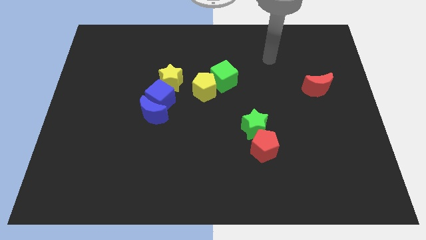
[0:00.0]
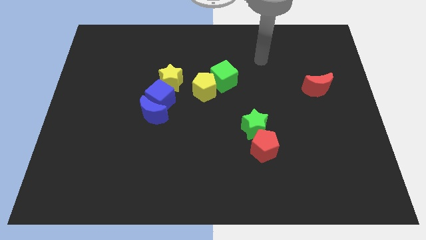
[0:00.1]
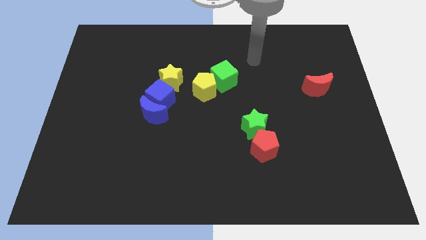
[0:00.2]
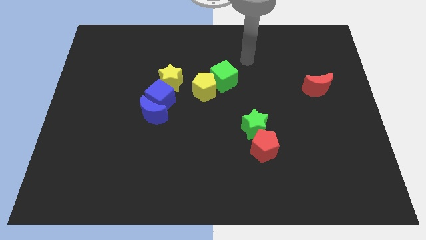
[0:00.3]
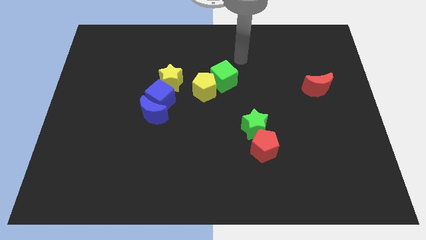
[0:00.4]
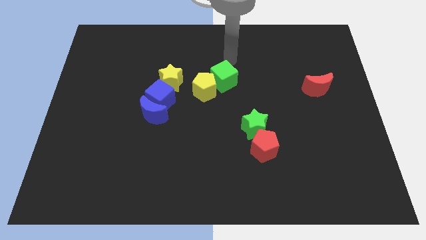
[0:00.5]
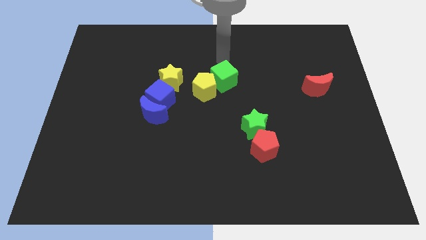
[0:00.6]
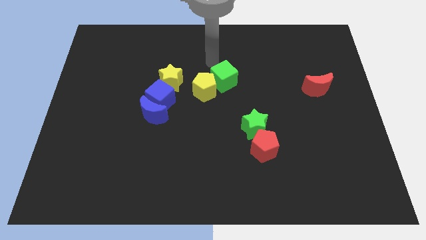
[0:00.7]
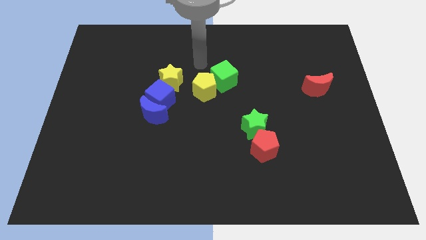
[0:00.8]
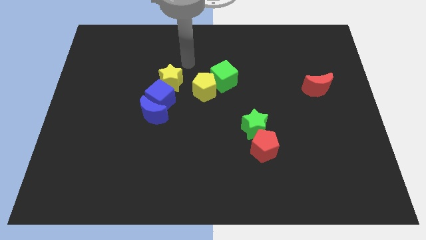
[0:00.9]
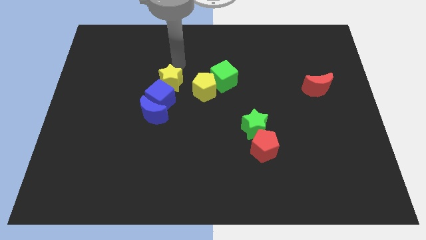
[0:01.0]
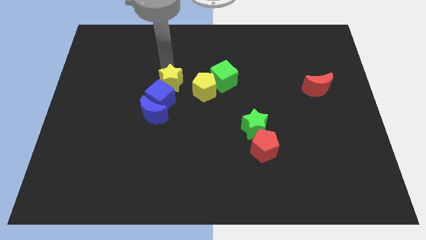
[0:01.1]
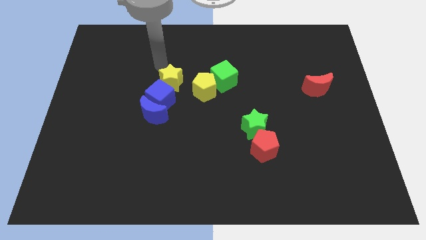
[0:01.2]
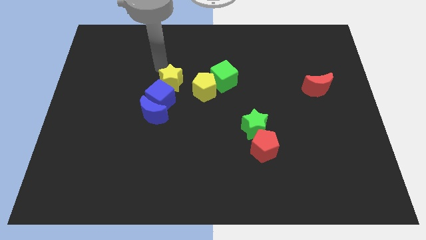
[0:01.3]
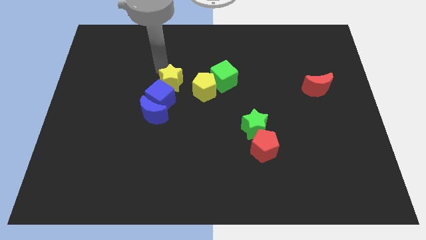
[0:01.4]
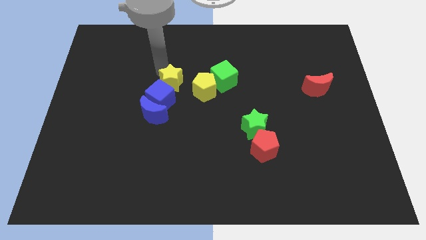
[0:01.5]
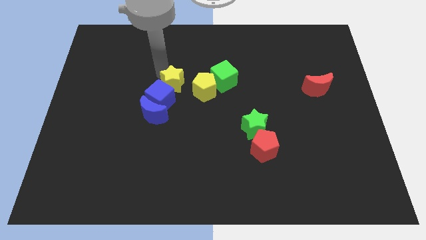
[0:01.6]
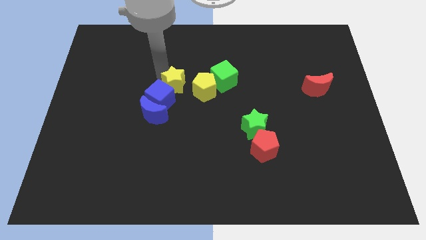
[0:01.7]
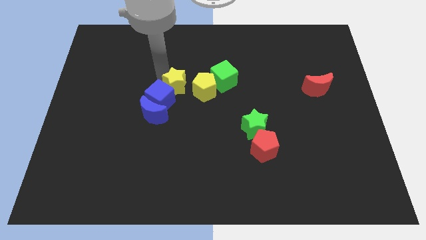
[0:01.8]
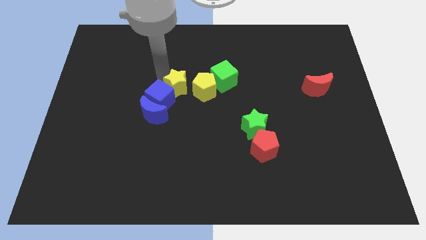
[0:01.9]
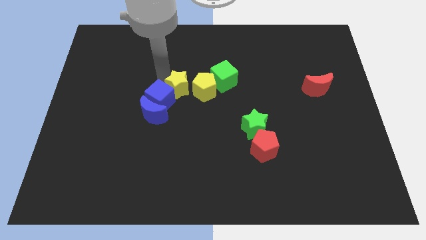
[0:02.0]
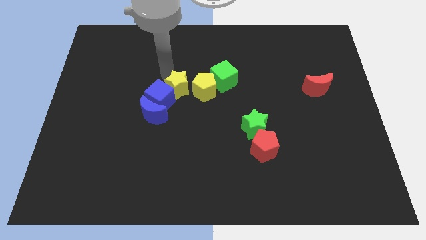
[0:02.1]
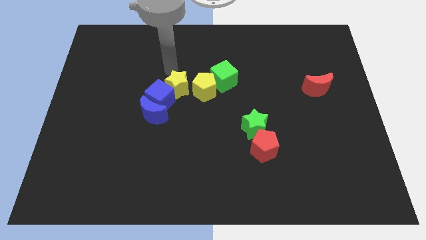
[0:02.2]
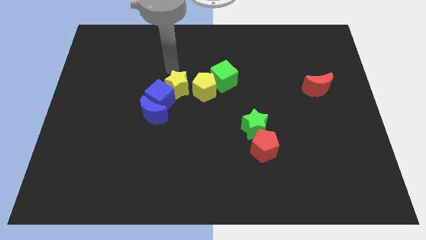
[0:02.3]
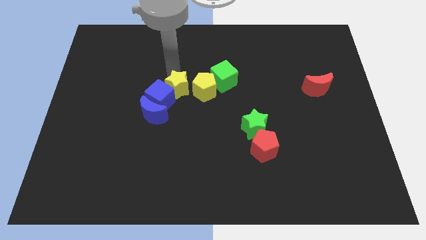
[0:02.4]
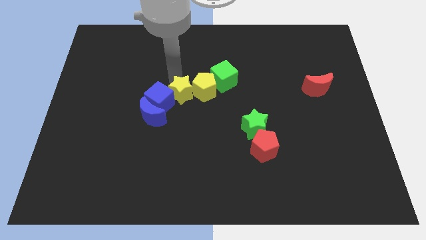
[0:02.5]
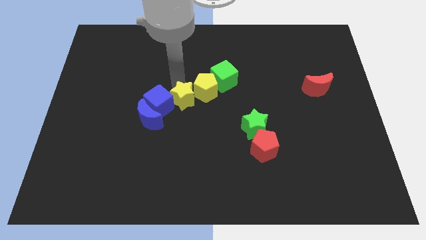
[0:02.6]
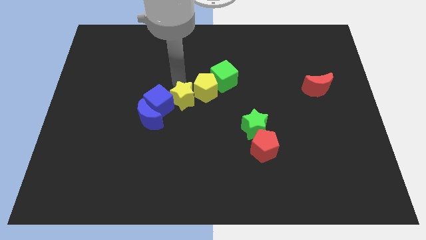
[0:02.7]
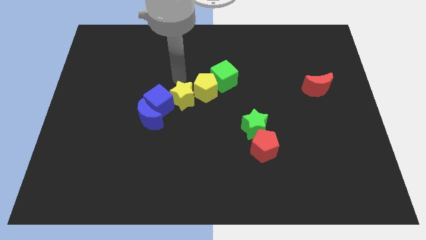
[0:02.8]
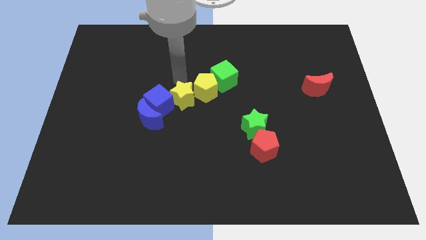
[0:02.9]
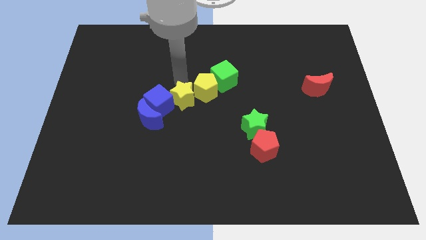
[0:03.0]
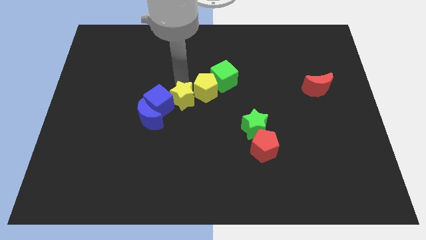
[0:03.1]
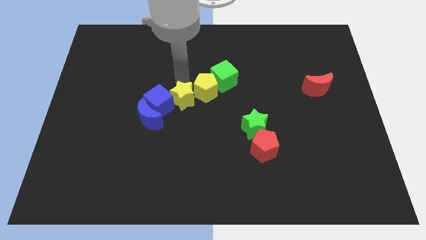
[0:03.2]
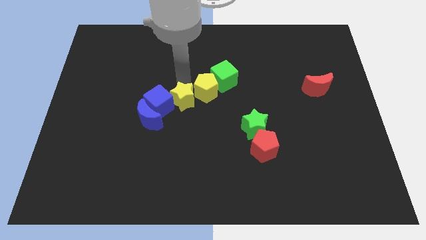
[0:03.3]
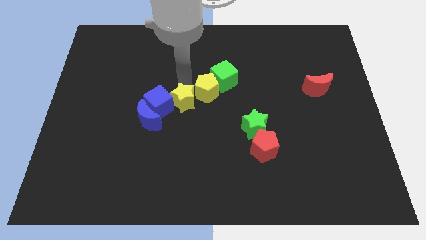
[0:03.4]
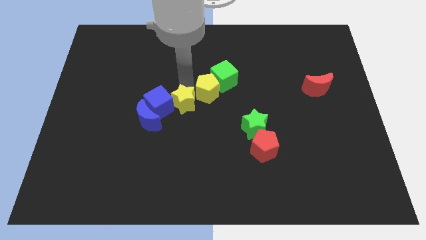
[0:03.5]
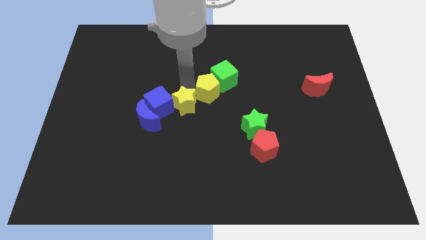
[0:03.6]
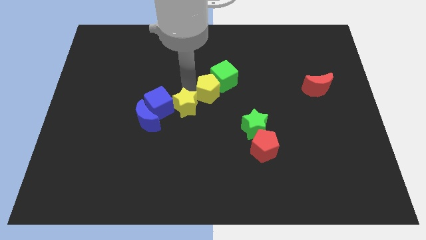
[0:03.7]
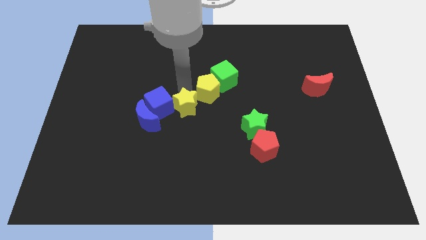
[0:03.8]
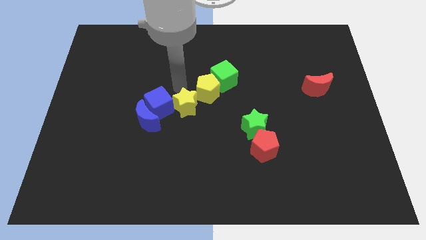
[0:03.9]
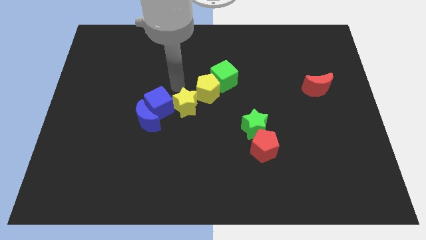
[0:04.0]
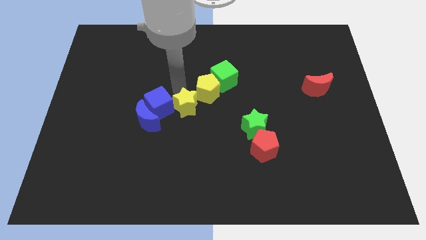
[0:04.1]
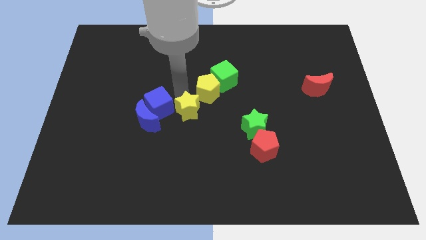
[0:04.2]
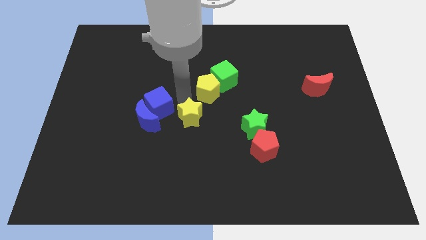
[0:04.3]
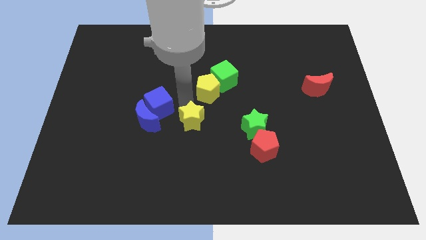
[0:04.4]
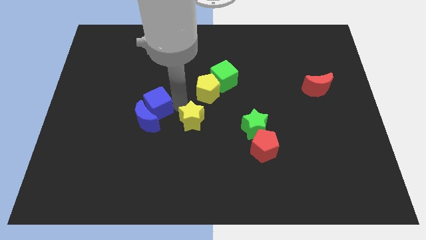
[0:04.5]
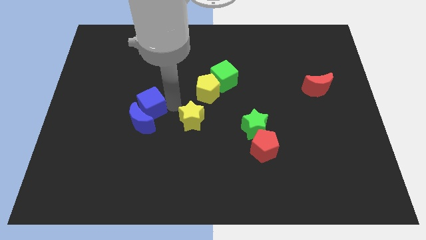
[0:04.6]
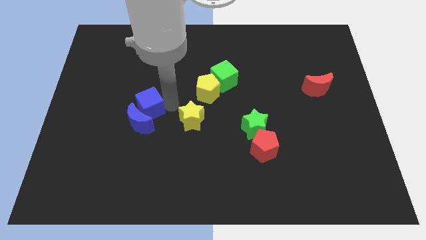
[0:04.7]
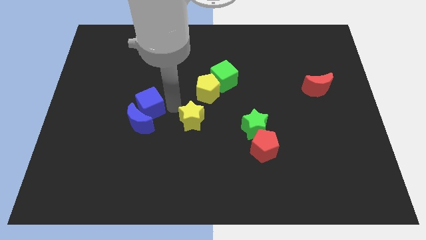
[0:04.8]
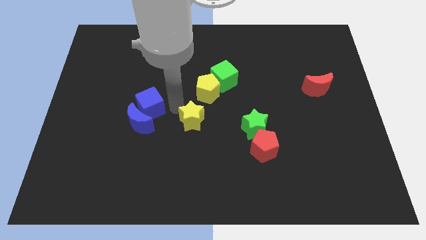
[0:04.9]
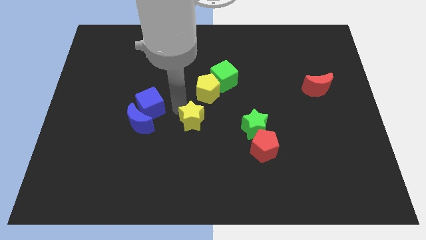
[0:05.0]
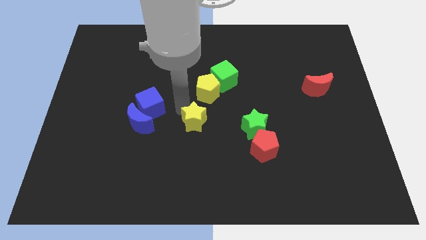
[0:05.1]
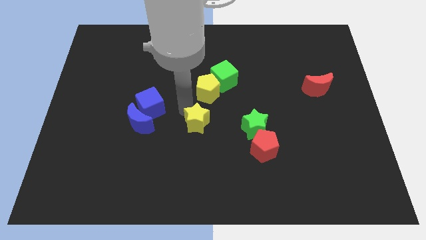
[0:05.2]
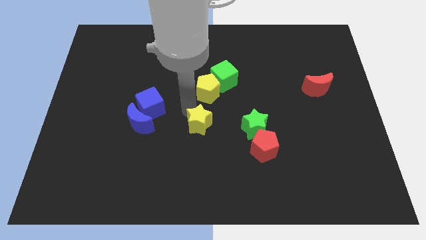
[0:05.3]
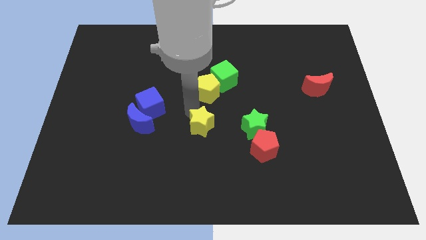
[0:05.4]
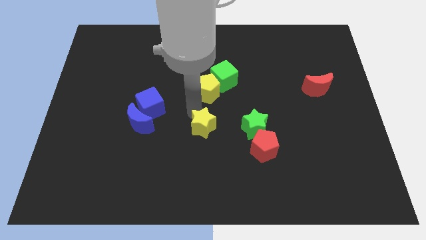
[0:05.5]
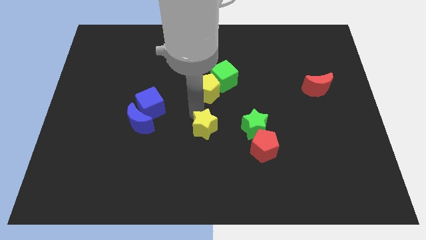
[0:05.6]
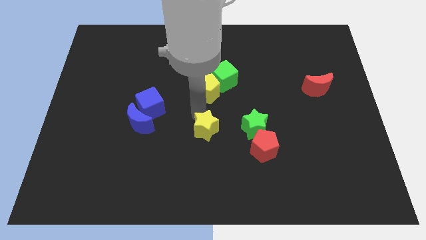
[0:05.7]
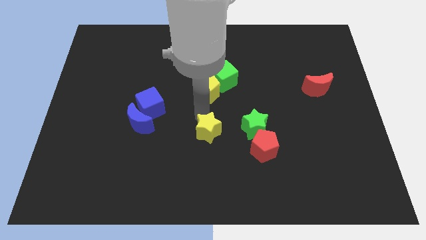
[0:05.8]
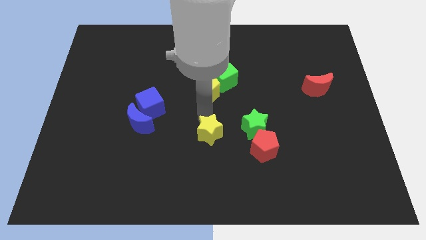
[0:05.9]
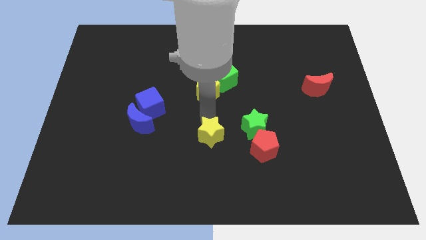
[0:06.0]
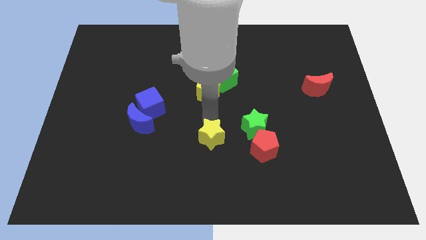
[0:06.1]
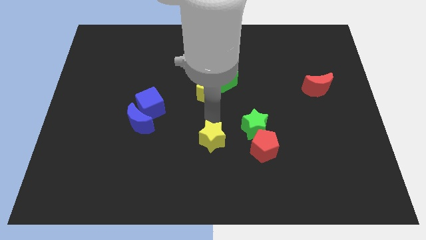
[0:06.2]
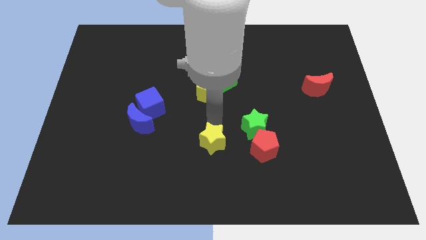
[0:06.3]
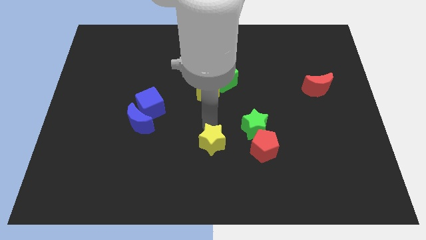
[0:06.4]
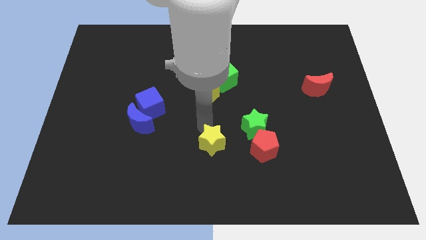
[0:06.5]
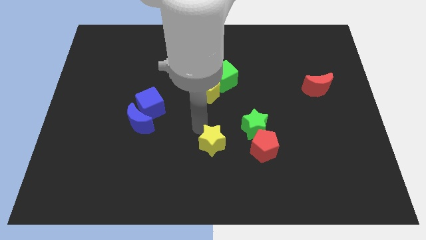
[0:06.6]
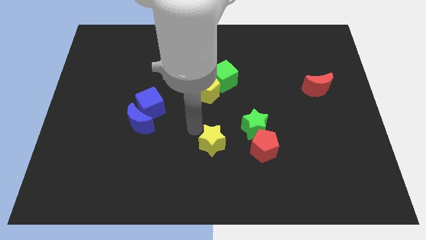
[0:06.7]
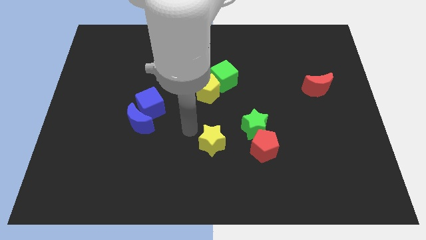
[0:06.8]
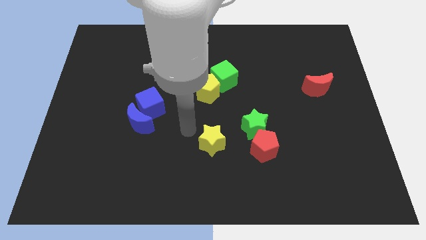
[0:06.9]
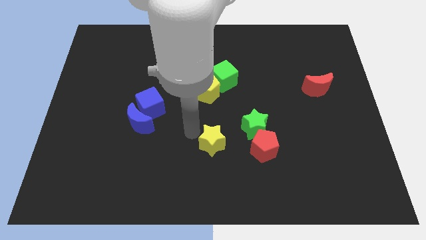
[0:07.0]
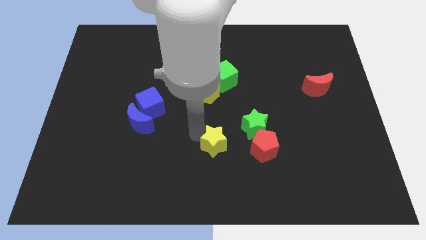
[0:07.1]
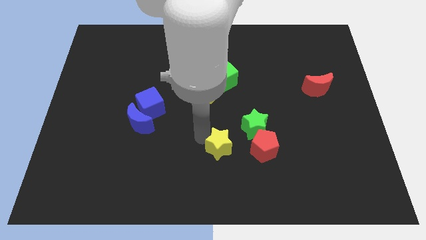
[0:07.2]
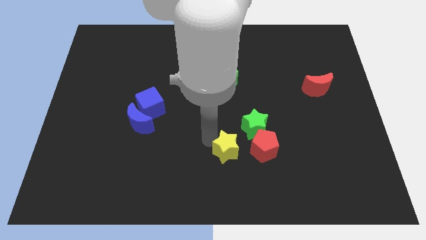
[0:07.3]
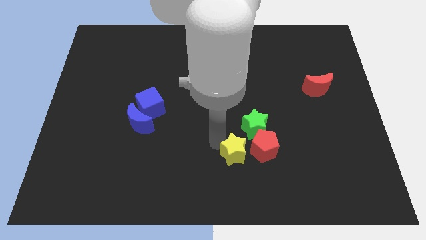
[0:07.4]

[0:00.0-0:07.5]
push the yellow star to the bottom left side of the red pentagon

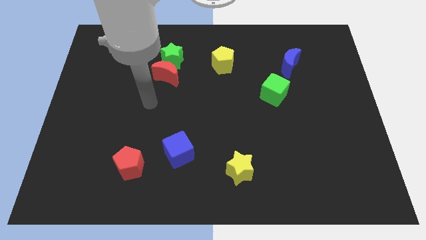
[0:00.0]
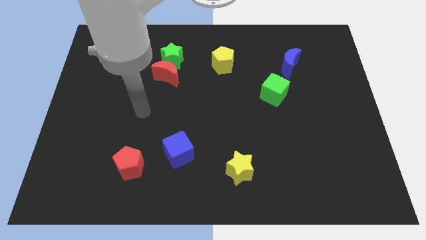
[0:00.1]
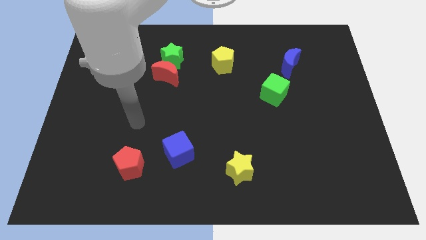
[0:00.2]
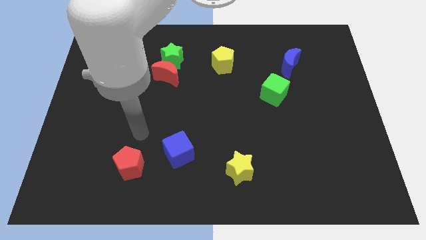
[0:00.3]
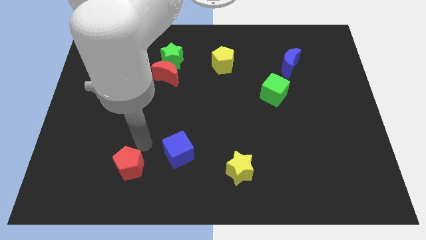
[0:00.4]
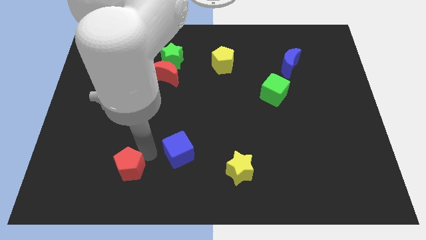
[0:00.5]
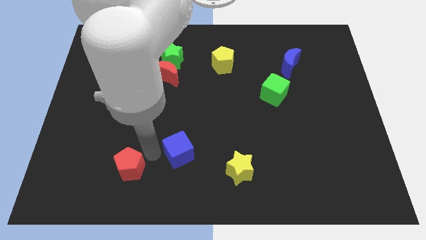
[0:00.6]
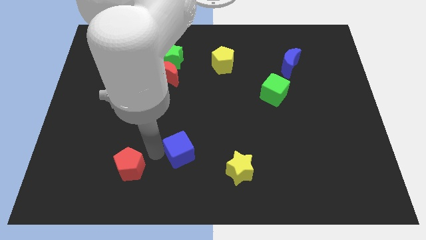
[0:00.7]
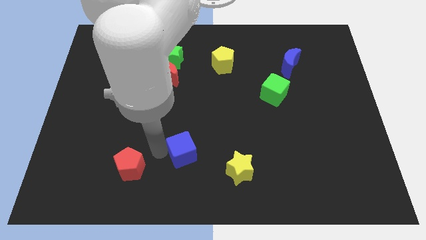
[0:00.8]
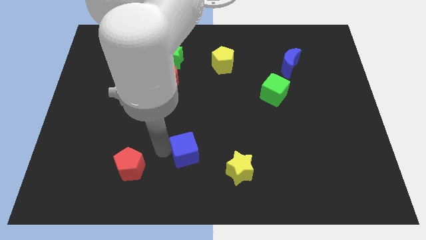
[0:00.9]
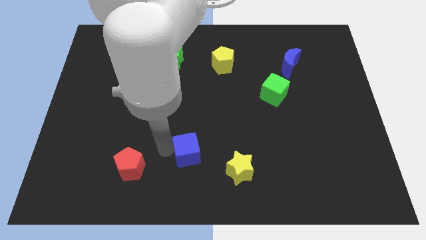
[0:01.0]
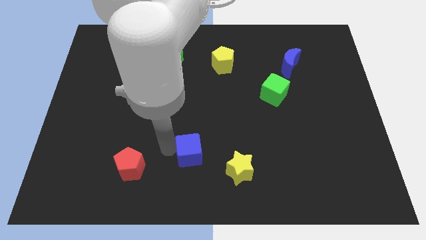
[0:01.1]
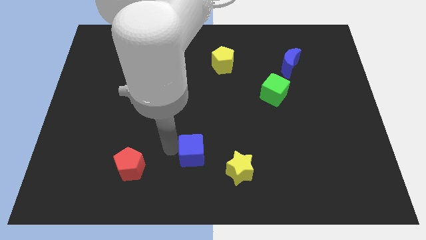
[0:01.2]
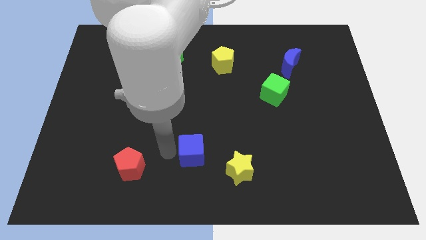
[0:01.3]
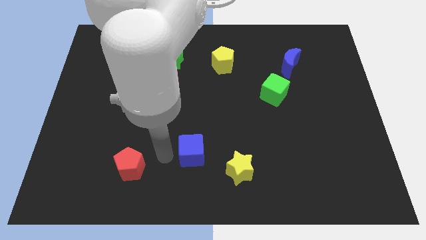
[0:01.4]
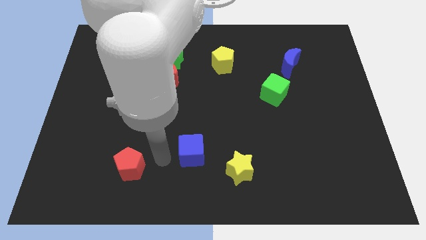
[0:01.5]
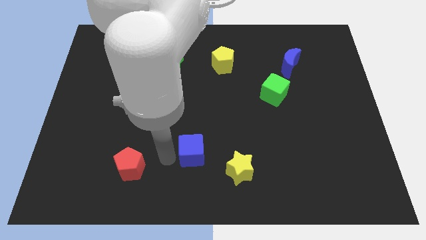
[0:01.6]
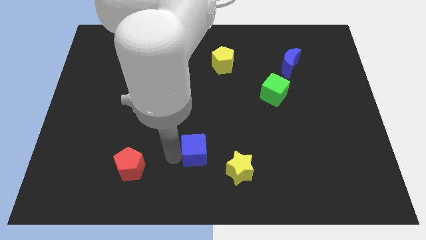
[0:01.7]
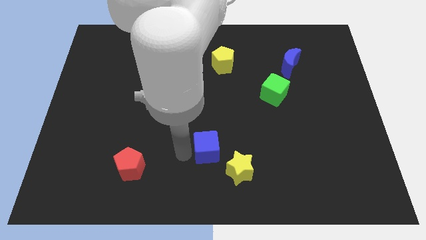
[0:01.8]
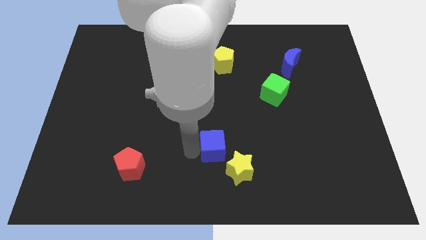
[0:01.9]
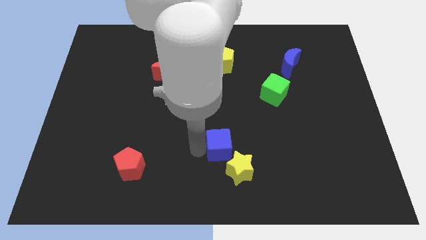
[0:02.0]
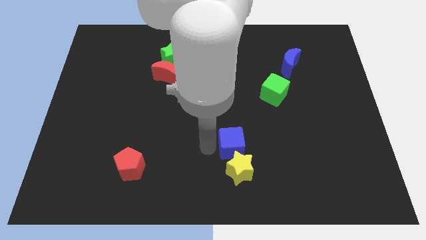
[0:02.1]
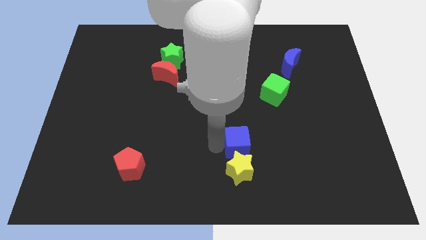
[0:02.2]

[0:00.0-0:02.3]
put the blue cube to the top right side of the yellow star
